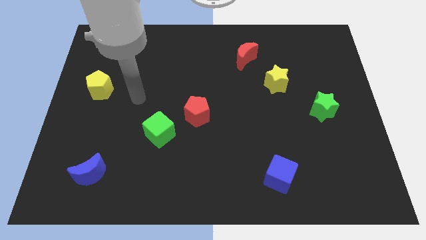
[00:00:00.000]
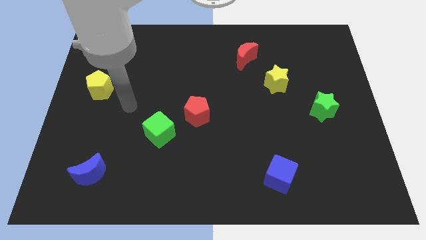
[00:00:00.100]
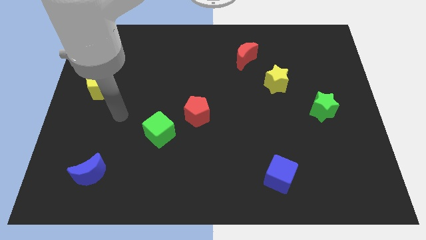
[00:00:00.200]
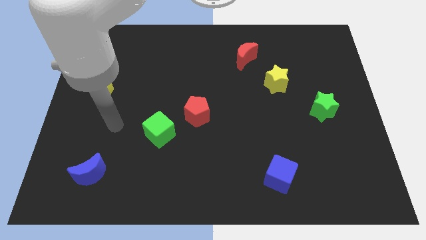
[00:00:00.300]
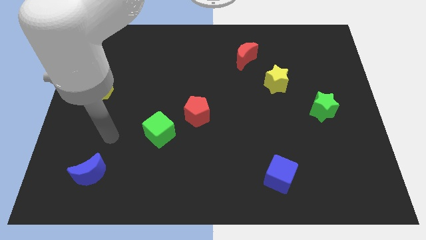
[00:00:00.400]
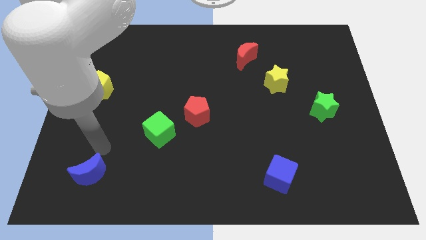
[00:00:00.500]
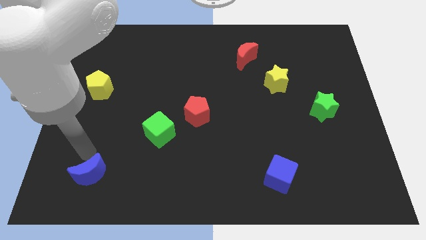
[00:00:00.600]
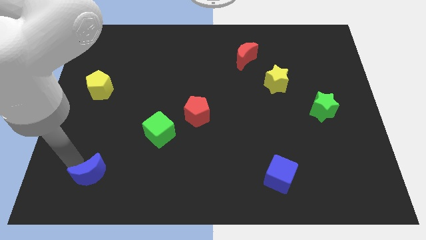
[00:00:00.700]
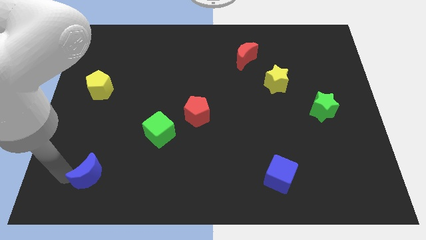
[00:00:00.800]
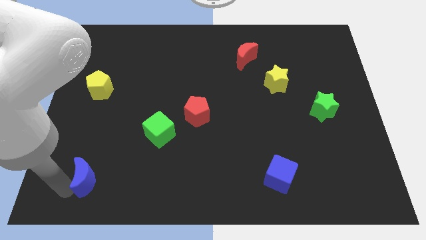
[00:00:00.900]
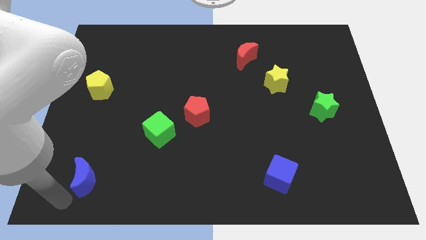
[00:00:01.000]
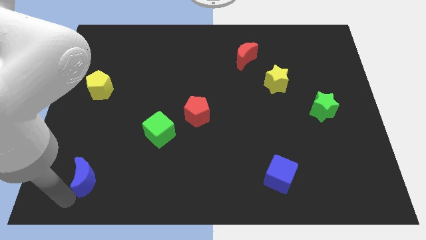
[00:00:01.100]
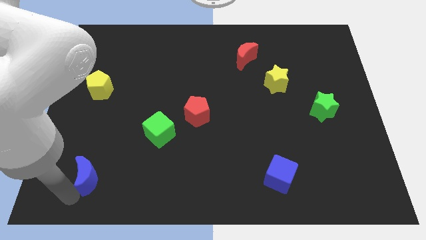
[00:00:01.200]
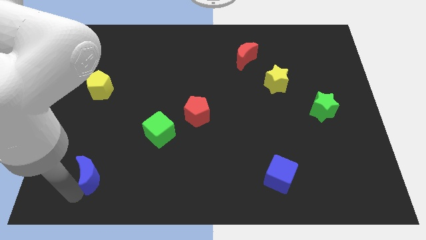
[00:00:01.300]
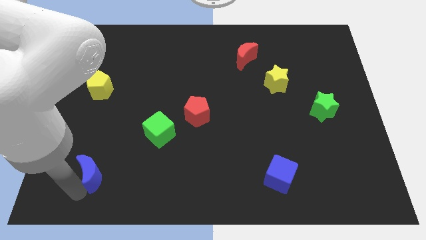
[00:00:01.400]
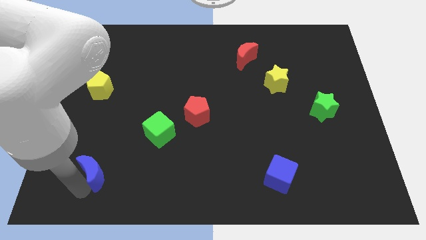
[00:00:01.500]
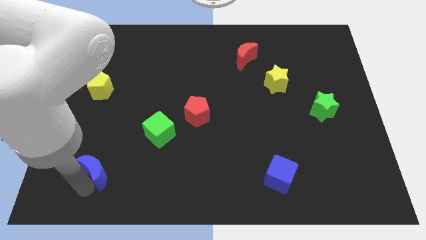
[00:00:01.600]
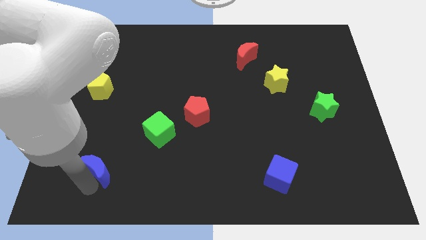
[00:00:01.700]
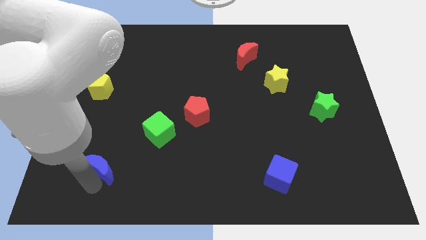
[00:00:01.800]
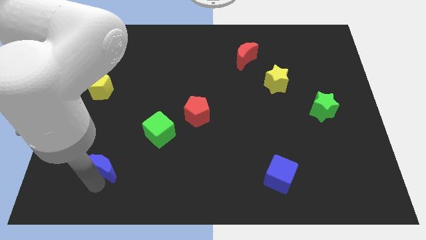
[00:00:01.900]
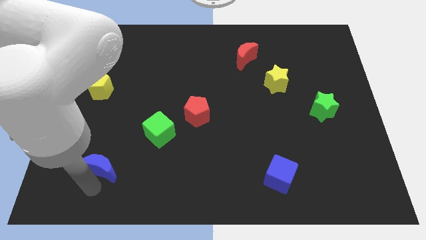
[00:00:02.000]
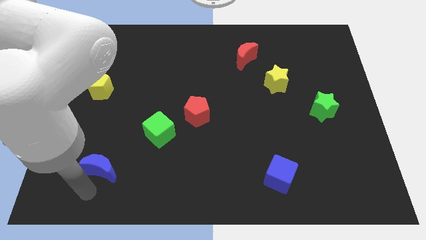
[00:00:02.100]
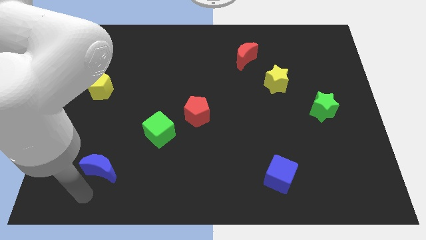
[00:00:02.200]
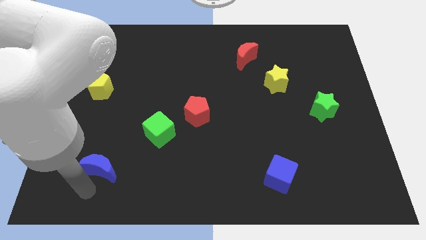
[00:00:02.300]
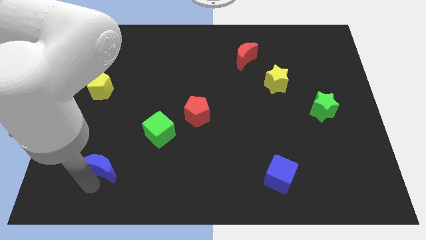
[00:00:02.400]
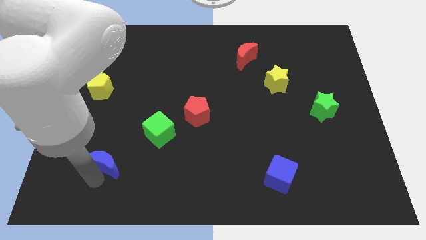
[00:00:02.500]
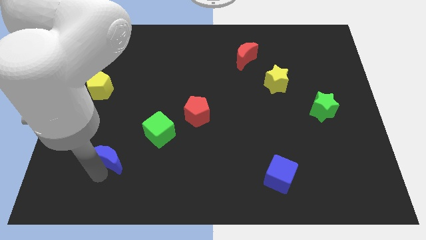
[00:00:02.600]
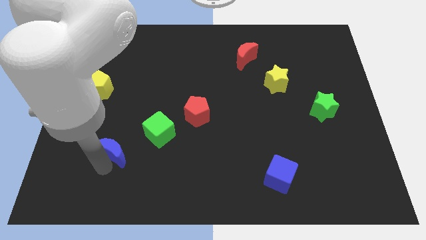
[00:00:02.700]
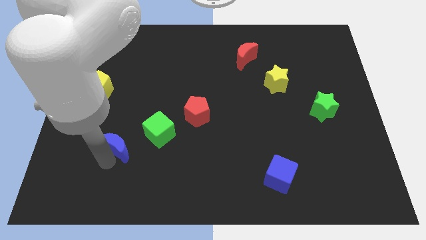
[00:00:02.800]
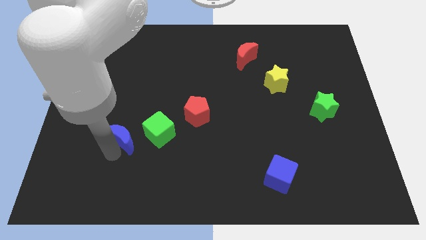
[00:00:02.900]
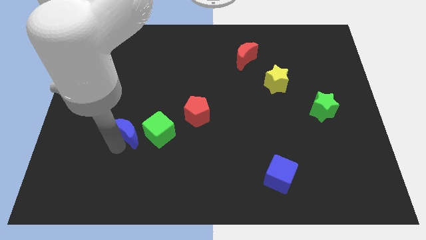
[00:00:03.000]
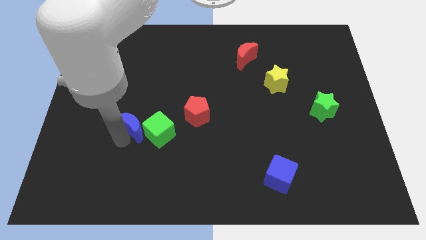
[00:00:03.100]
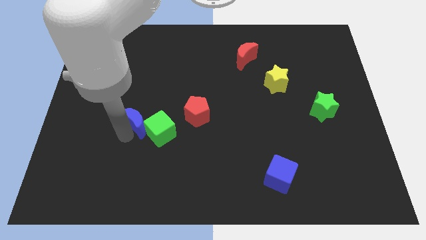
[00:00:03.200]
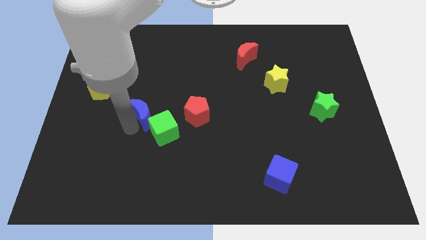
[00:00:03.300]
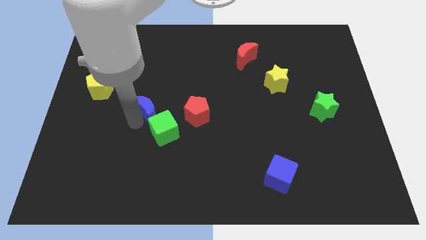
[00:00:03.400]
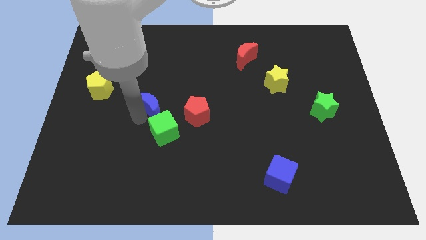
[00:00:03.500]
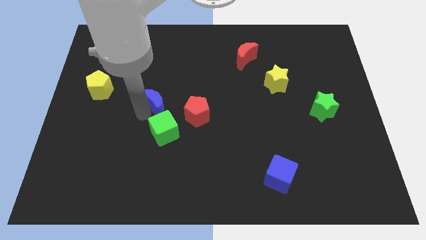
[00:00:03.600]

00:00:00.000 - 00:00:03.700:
move the blue moon upwards and then right

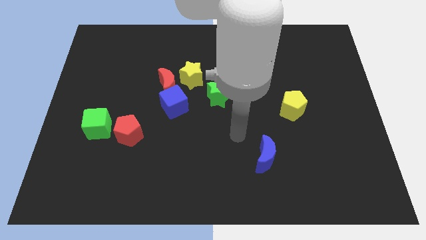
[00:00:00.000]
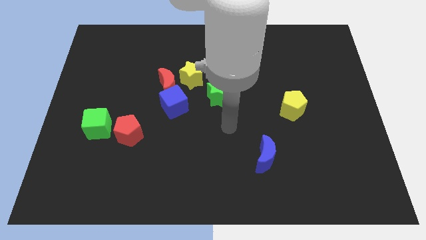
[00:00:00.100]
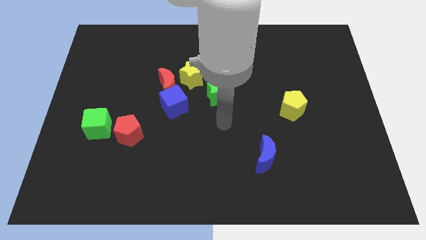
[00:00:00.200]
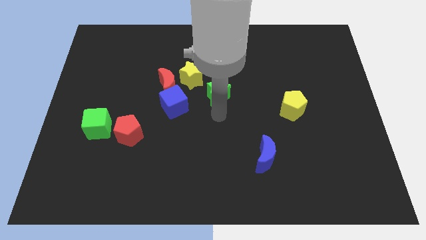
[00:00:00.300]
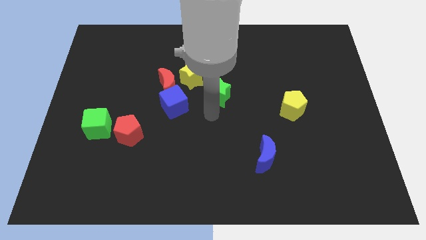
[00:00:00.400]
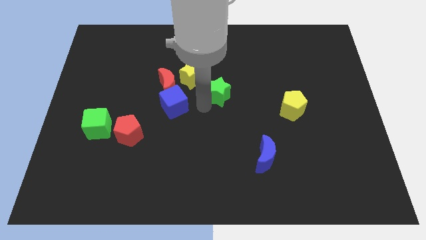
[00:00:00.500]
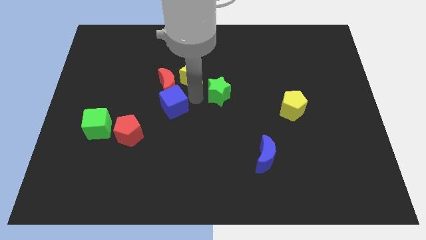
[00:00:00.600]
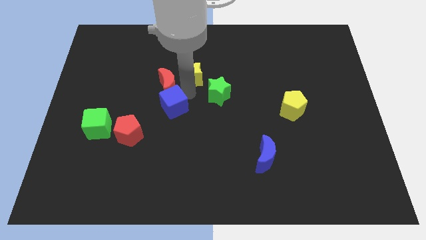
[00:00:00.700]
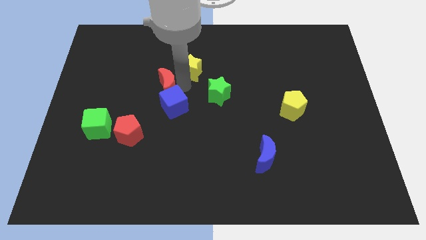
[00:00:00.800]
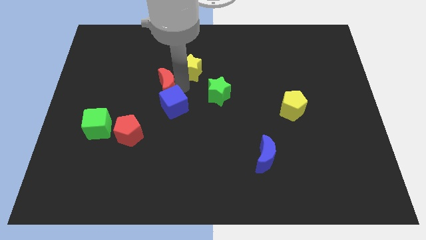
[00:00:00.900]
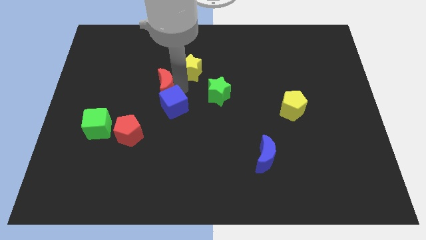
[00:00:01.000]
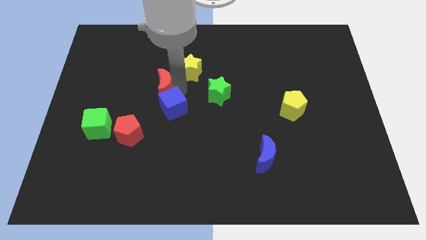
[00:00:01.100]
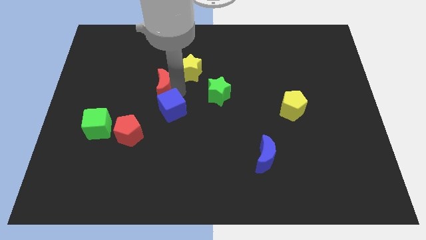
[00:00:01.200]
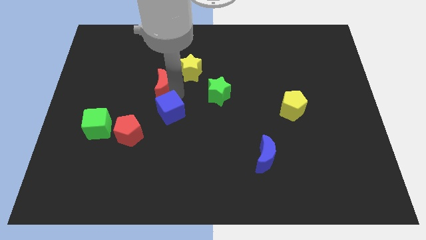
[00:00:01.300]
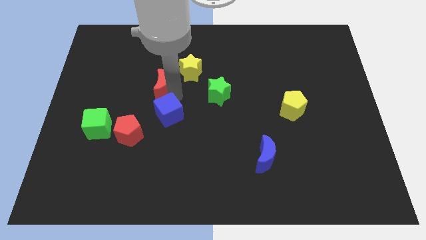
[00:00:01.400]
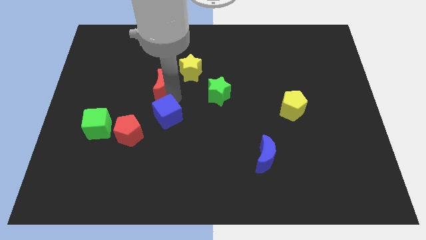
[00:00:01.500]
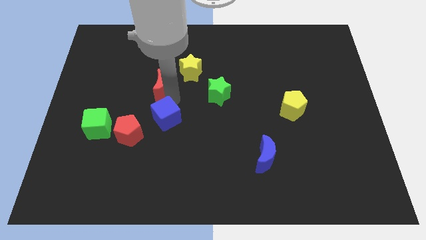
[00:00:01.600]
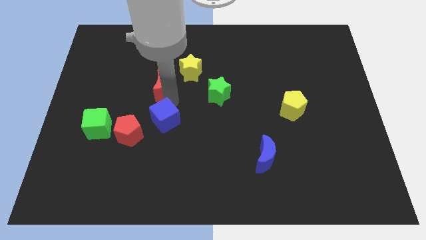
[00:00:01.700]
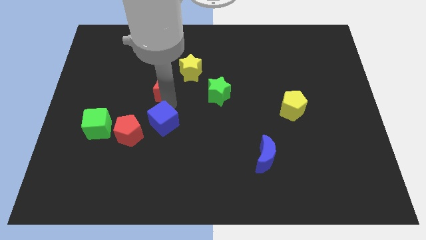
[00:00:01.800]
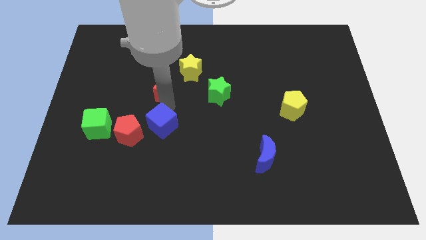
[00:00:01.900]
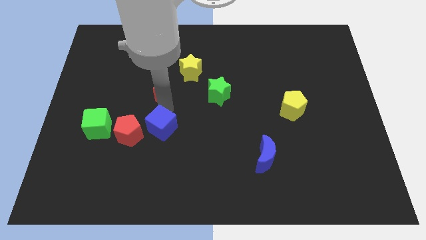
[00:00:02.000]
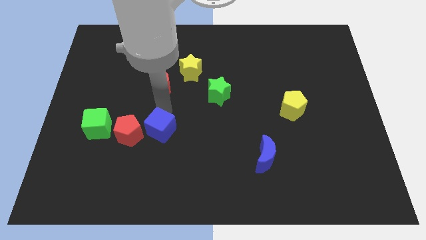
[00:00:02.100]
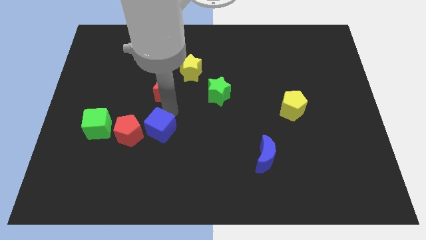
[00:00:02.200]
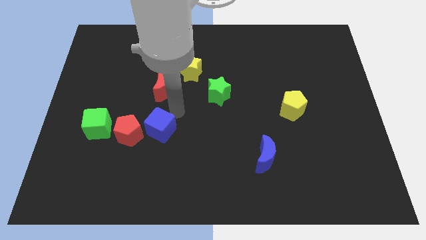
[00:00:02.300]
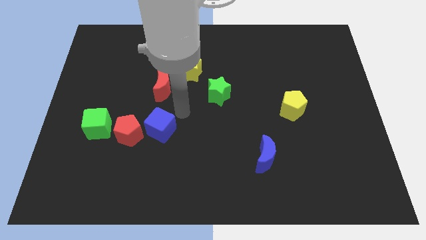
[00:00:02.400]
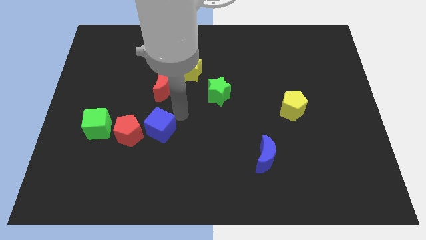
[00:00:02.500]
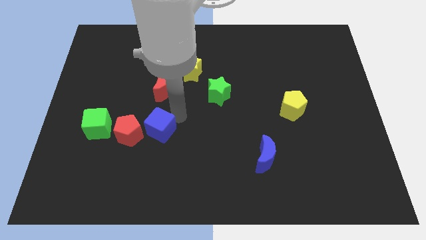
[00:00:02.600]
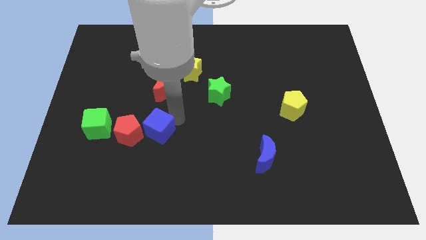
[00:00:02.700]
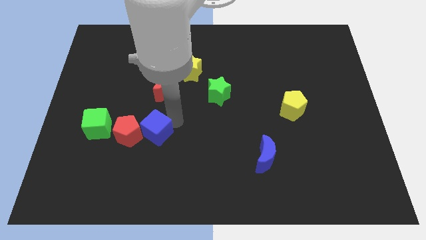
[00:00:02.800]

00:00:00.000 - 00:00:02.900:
slide the blue cube down and left diagonally a bit

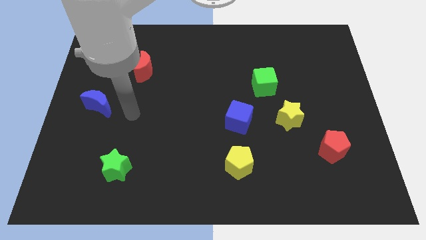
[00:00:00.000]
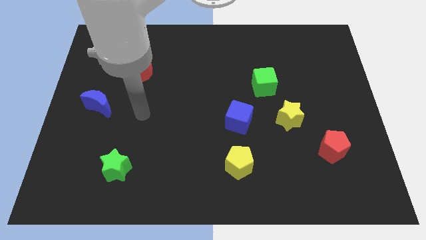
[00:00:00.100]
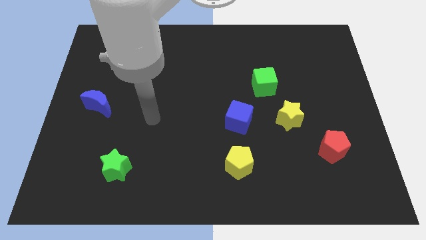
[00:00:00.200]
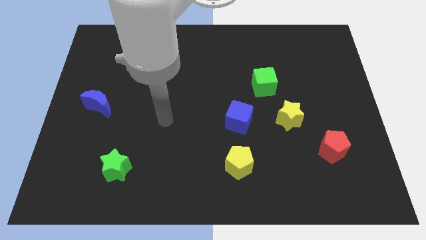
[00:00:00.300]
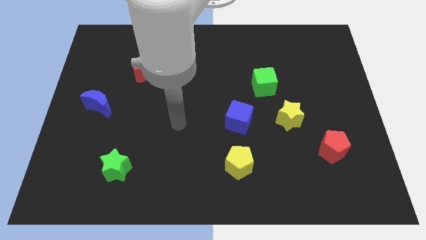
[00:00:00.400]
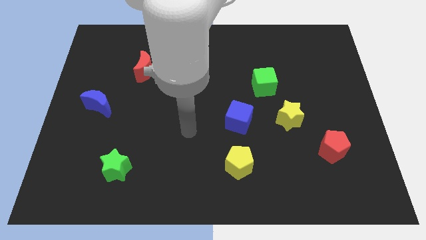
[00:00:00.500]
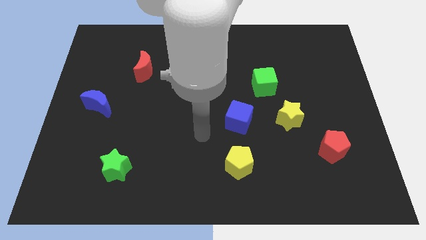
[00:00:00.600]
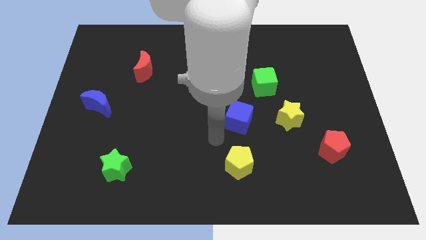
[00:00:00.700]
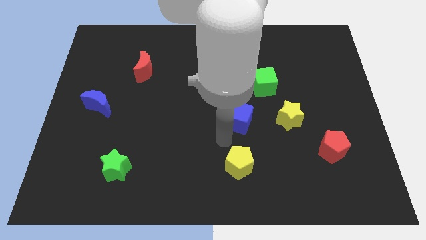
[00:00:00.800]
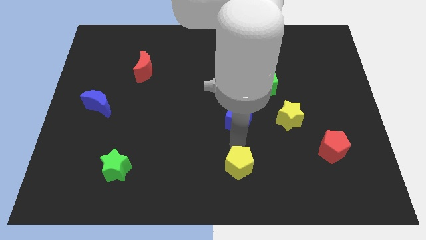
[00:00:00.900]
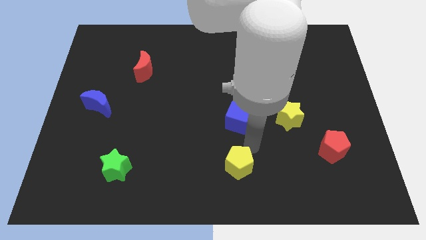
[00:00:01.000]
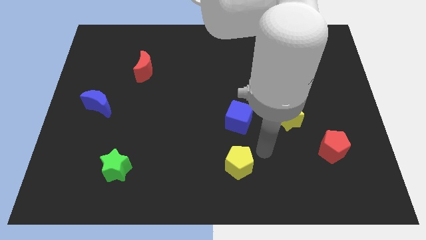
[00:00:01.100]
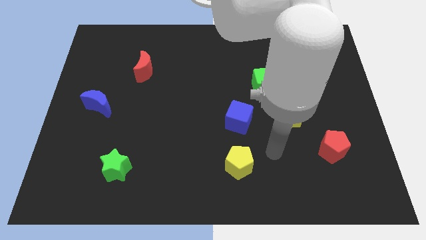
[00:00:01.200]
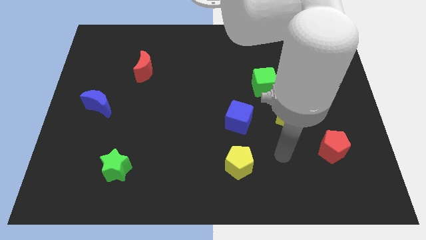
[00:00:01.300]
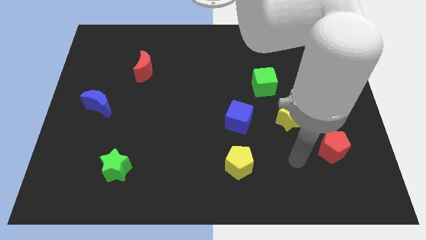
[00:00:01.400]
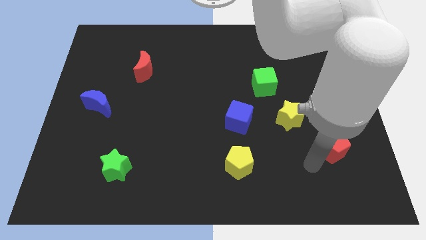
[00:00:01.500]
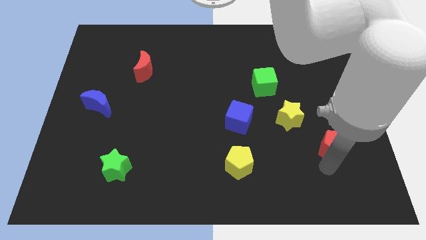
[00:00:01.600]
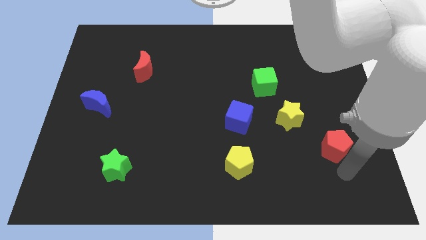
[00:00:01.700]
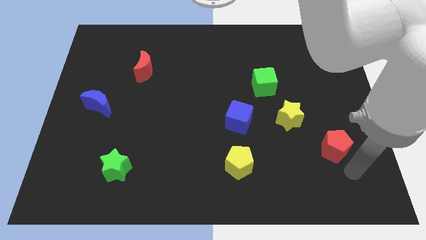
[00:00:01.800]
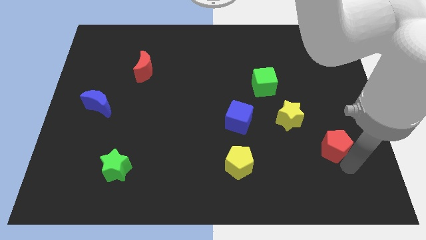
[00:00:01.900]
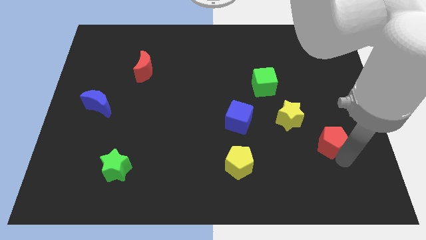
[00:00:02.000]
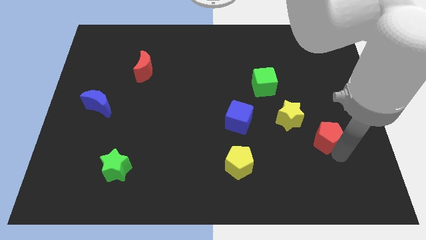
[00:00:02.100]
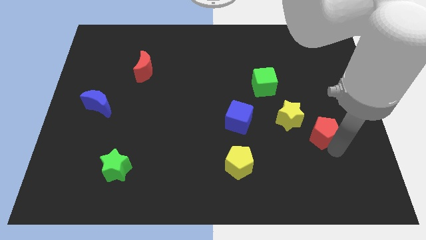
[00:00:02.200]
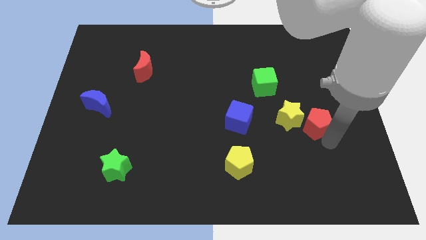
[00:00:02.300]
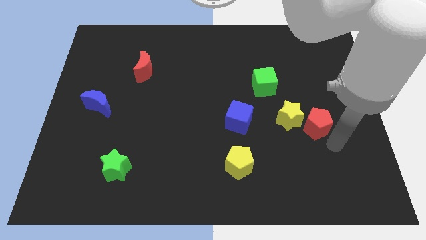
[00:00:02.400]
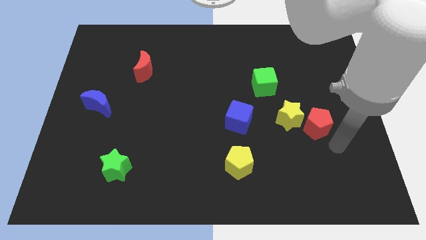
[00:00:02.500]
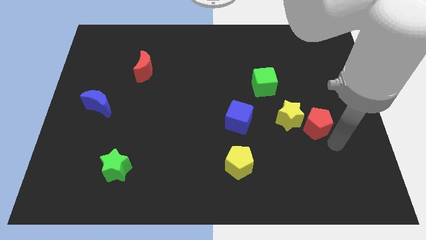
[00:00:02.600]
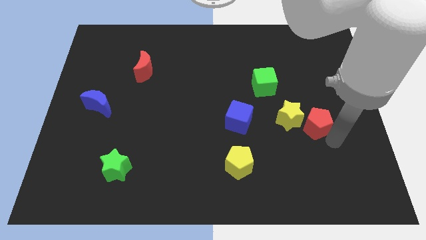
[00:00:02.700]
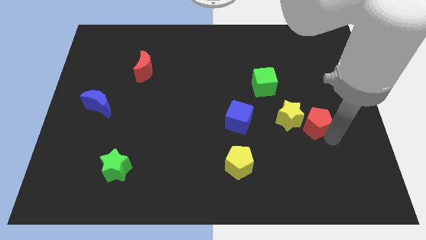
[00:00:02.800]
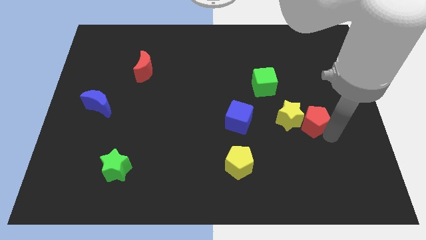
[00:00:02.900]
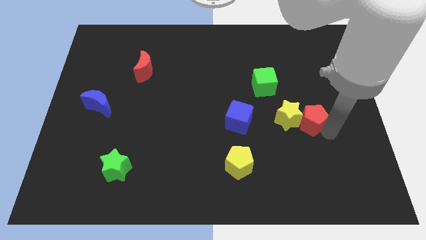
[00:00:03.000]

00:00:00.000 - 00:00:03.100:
slightly slide the red pentagon up and to the left
